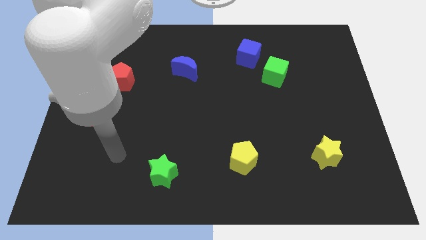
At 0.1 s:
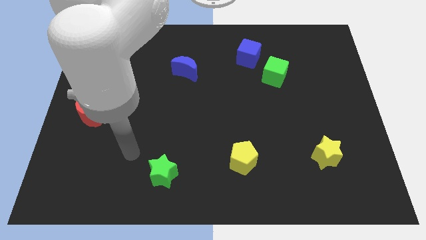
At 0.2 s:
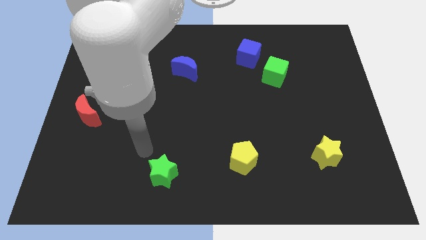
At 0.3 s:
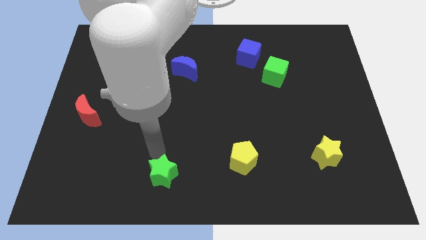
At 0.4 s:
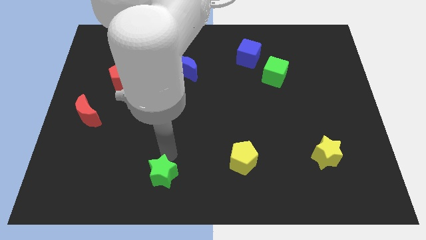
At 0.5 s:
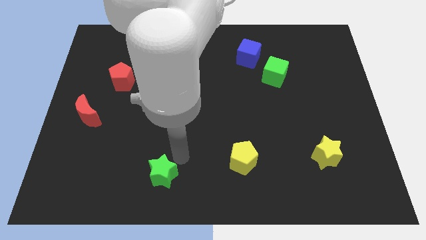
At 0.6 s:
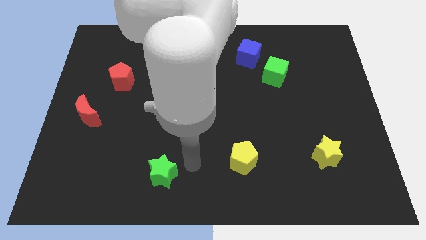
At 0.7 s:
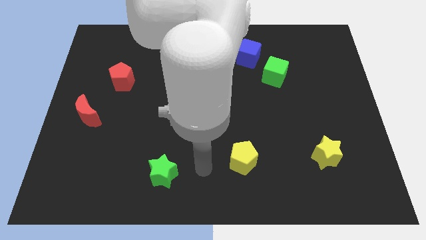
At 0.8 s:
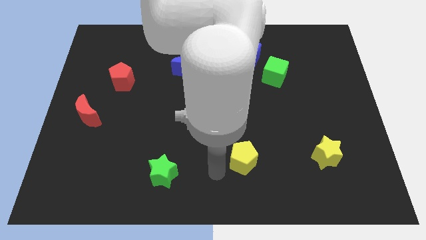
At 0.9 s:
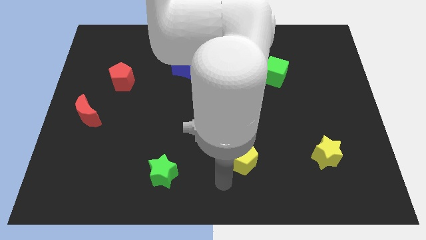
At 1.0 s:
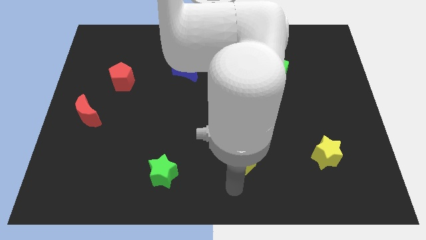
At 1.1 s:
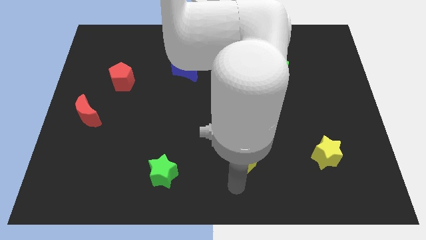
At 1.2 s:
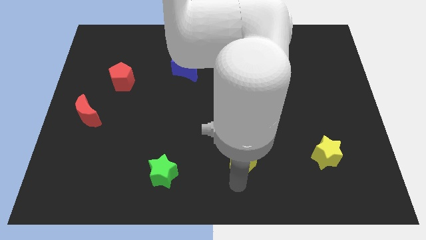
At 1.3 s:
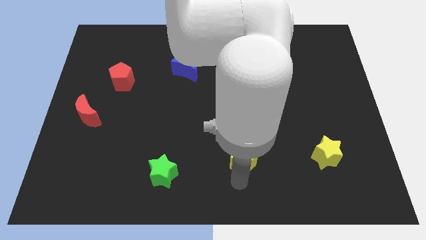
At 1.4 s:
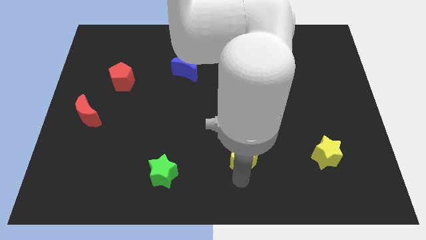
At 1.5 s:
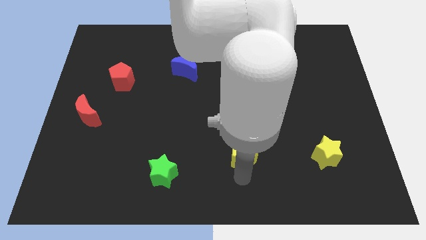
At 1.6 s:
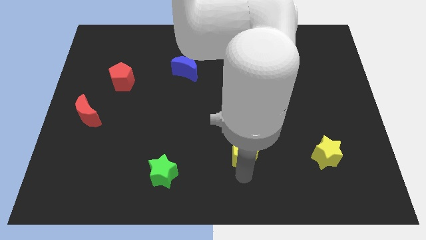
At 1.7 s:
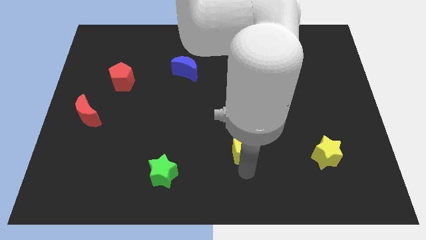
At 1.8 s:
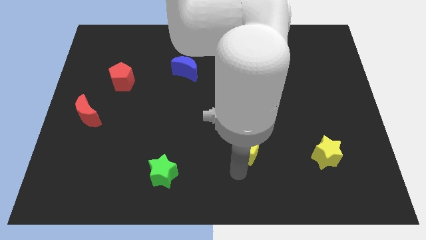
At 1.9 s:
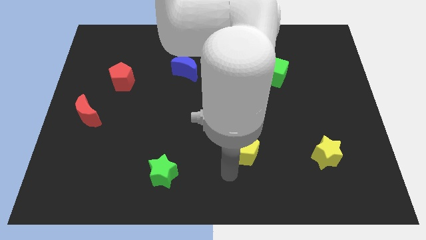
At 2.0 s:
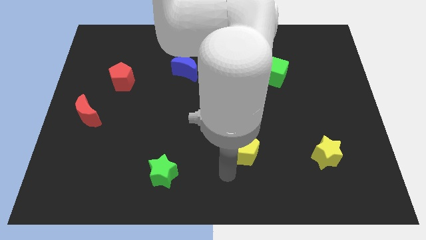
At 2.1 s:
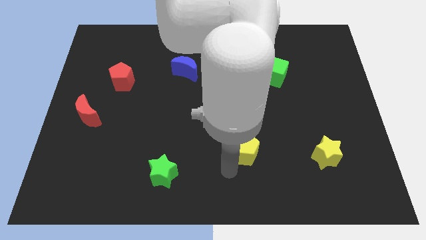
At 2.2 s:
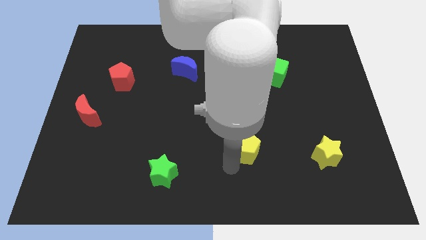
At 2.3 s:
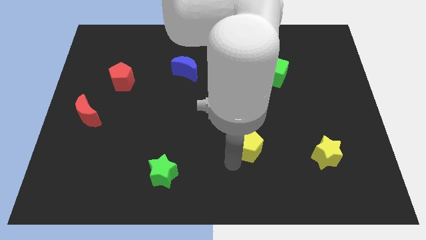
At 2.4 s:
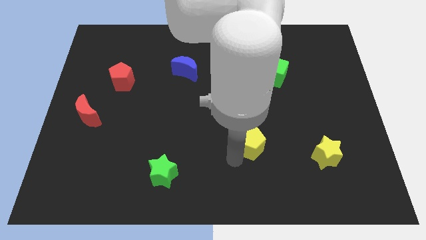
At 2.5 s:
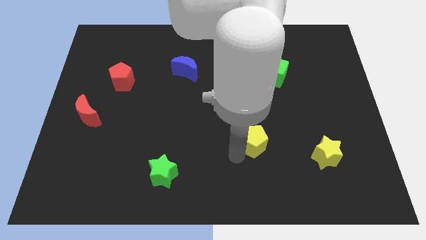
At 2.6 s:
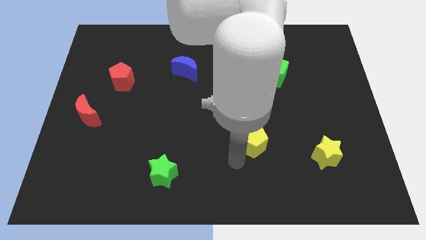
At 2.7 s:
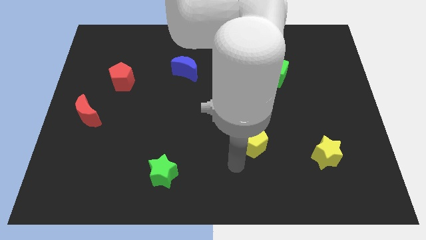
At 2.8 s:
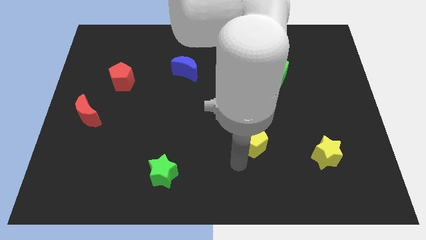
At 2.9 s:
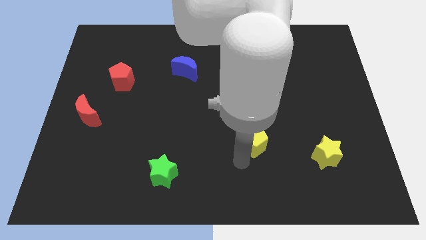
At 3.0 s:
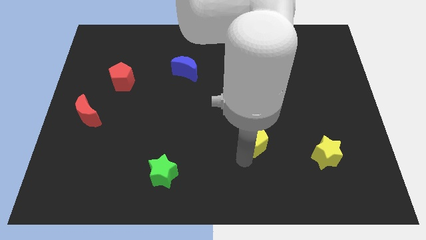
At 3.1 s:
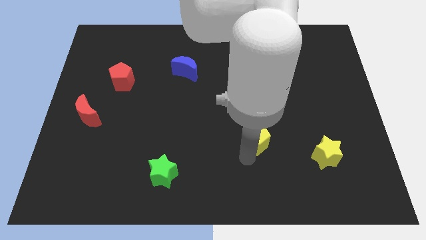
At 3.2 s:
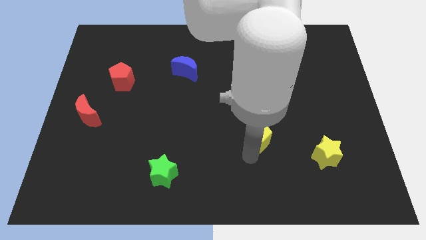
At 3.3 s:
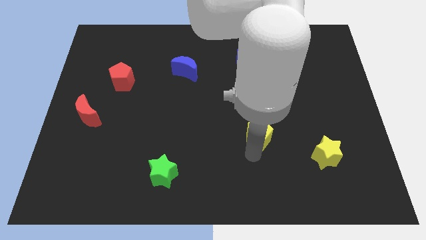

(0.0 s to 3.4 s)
push the yellow pentagon up and to the right a bit

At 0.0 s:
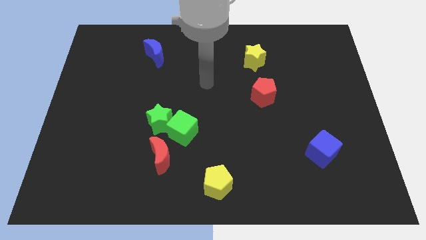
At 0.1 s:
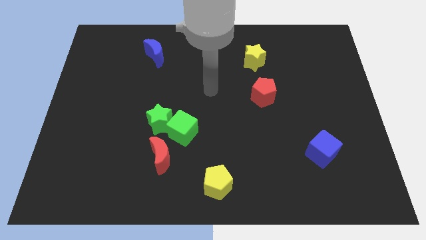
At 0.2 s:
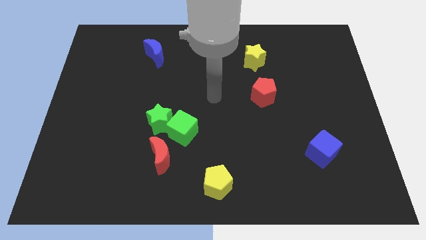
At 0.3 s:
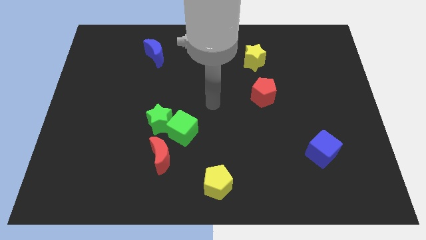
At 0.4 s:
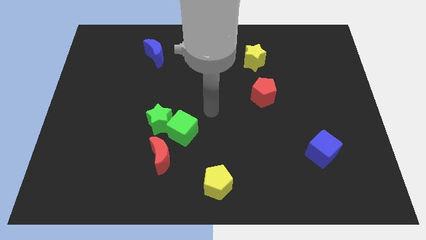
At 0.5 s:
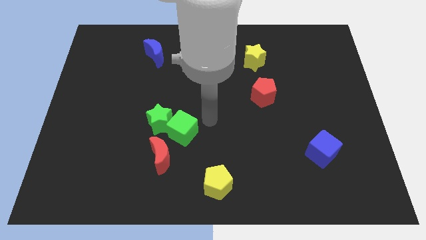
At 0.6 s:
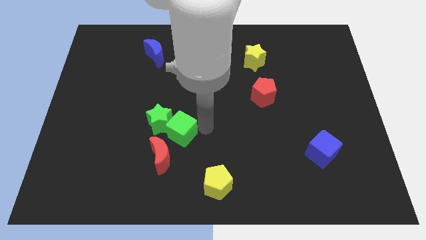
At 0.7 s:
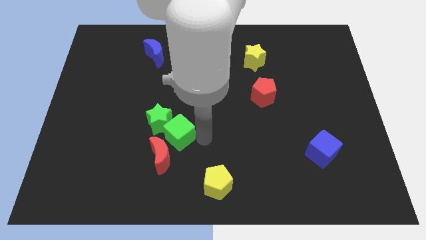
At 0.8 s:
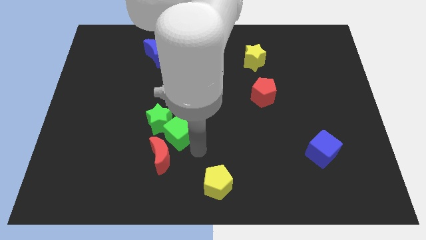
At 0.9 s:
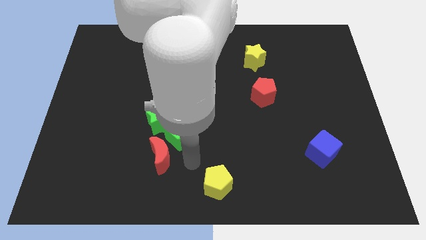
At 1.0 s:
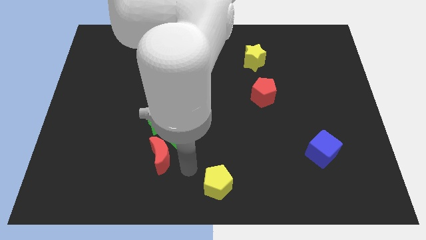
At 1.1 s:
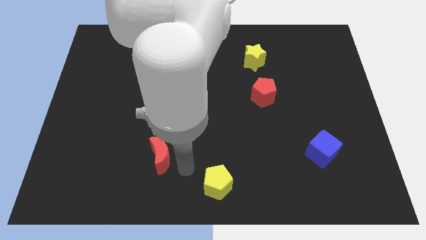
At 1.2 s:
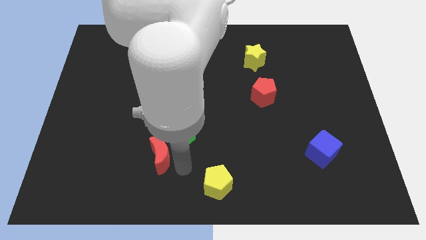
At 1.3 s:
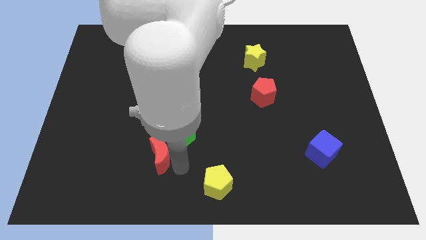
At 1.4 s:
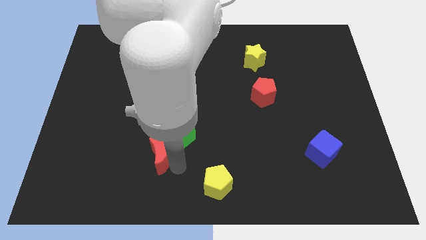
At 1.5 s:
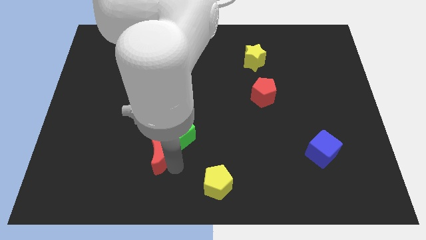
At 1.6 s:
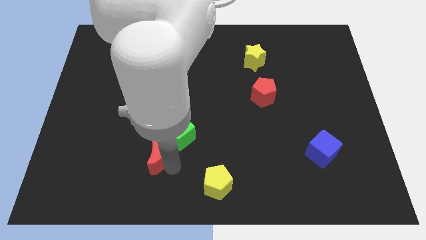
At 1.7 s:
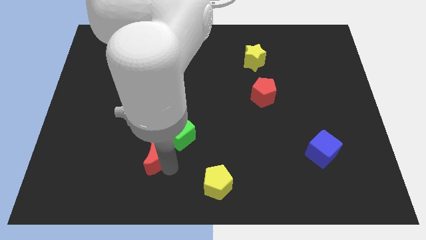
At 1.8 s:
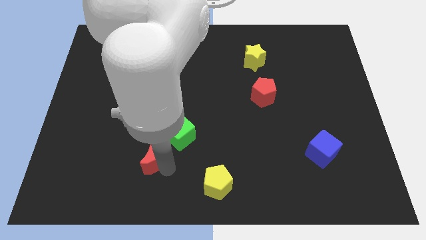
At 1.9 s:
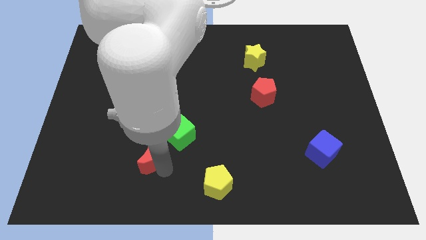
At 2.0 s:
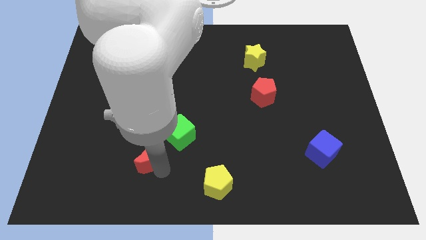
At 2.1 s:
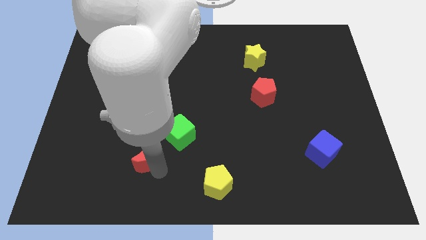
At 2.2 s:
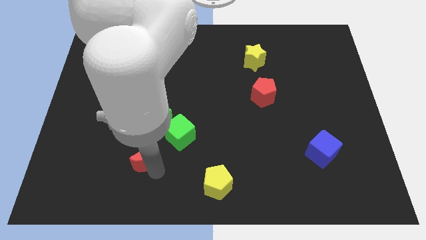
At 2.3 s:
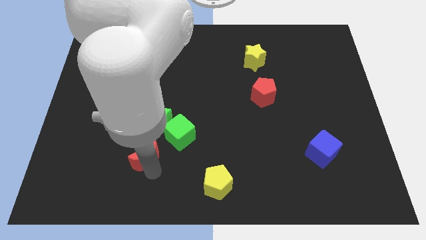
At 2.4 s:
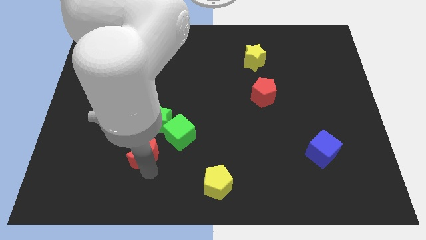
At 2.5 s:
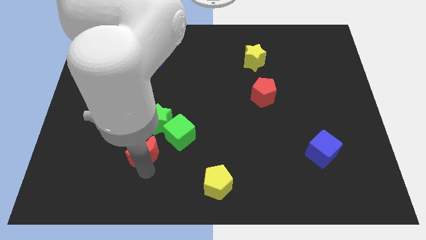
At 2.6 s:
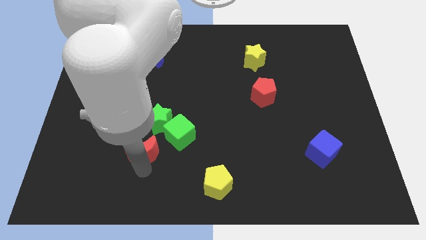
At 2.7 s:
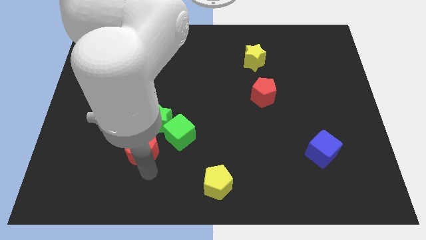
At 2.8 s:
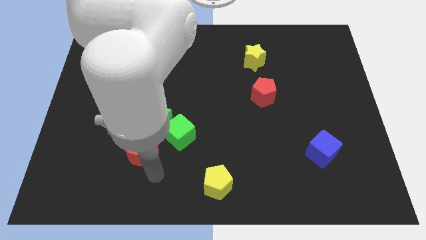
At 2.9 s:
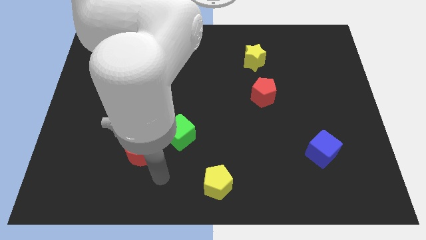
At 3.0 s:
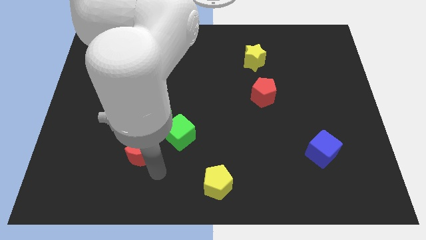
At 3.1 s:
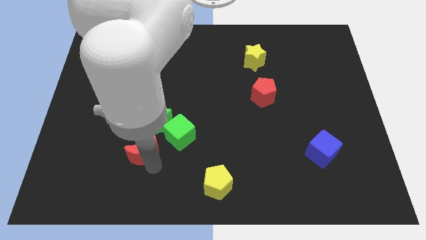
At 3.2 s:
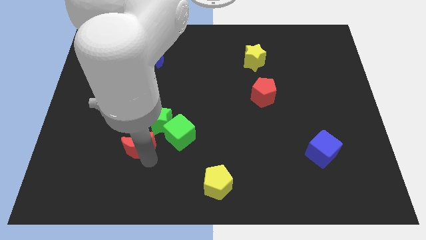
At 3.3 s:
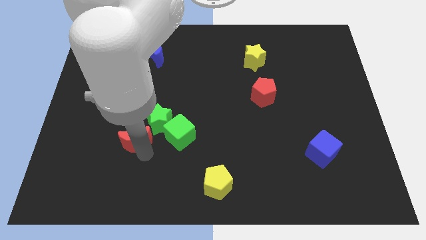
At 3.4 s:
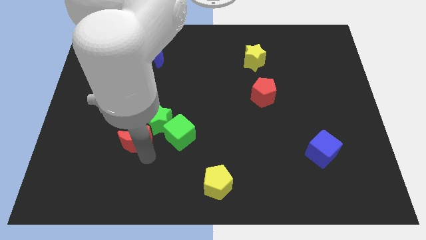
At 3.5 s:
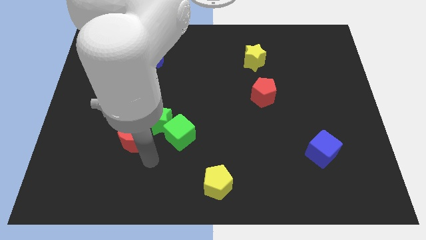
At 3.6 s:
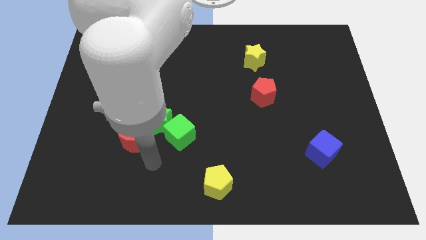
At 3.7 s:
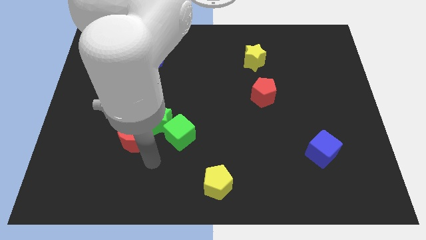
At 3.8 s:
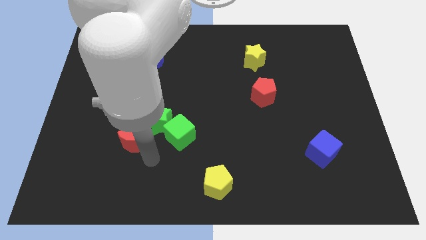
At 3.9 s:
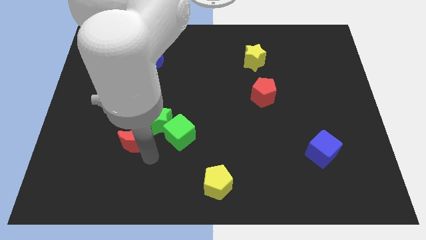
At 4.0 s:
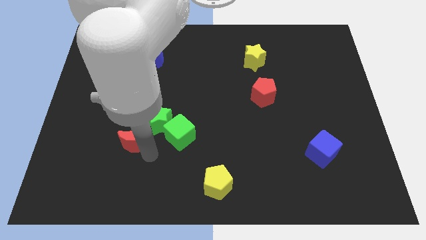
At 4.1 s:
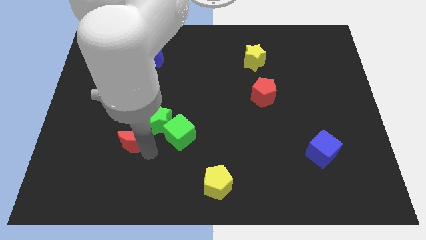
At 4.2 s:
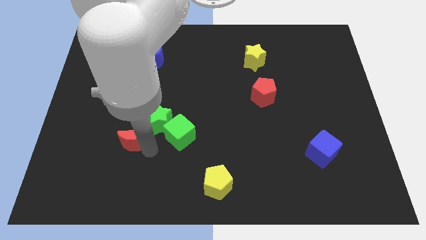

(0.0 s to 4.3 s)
move the red moon up and left a bit
